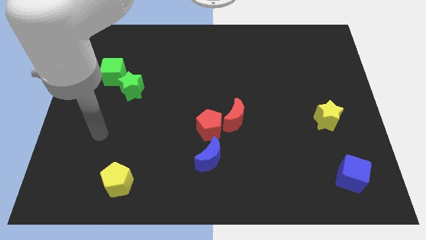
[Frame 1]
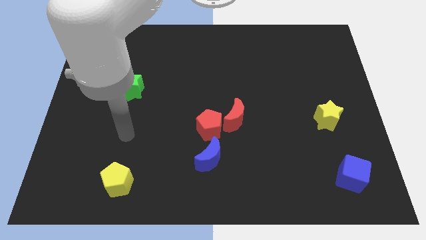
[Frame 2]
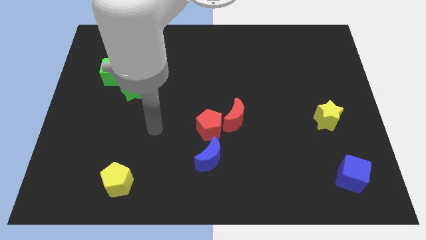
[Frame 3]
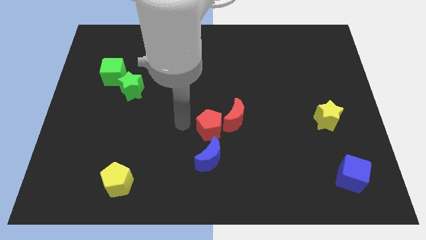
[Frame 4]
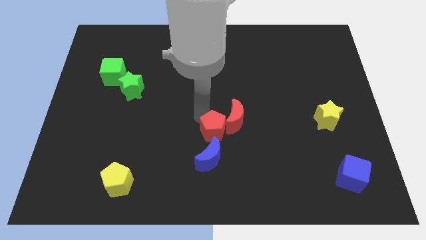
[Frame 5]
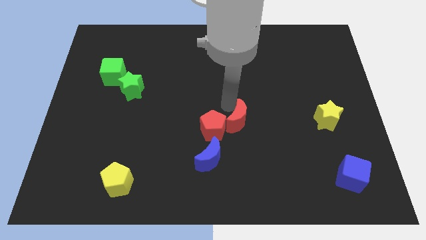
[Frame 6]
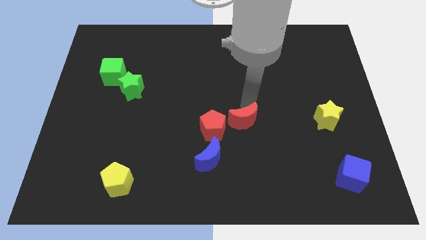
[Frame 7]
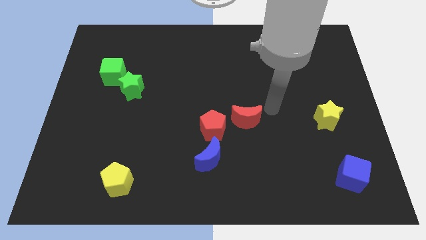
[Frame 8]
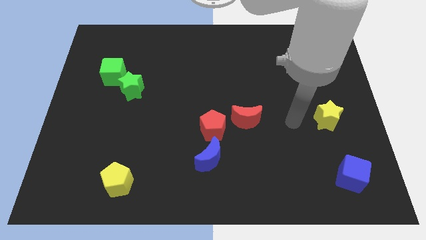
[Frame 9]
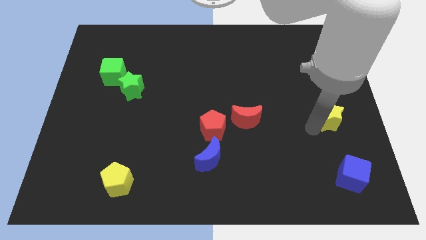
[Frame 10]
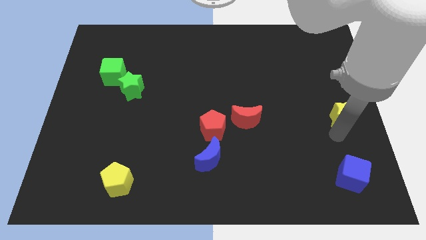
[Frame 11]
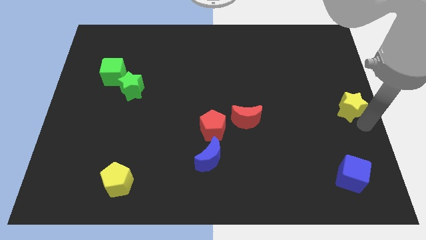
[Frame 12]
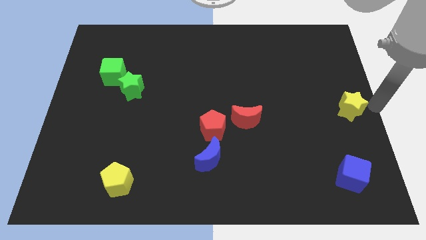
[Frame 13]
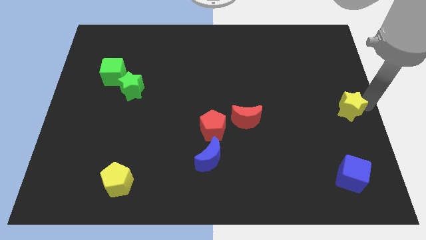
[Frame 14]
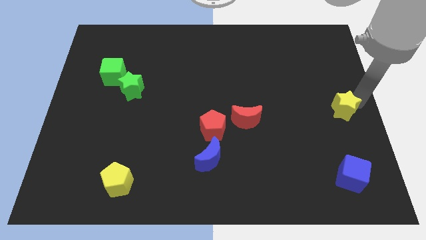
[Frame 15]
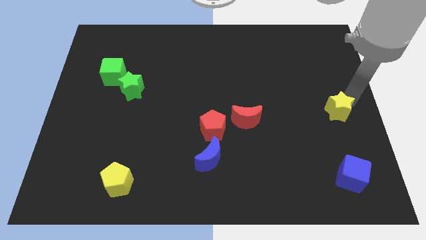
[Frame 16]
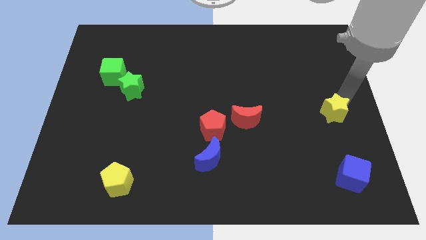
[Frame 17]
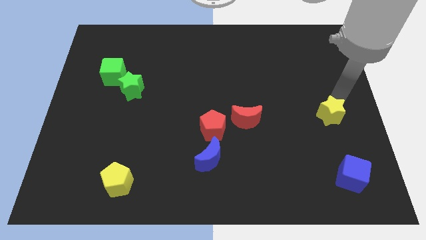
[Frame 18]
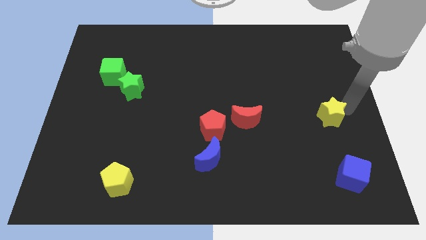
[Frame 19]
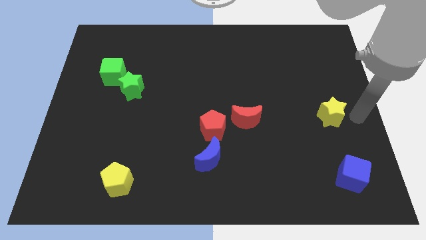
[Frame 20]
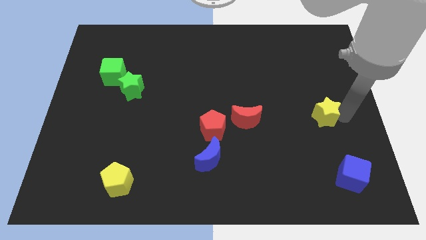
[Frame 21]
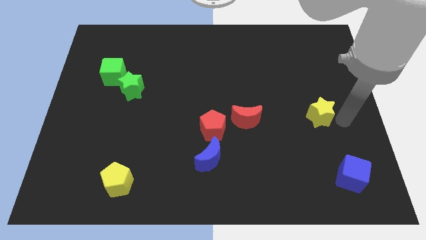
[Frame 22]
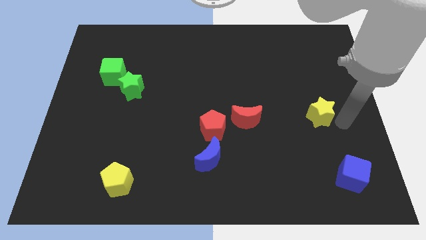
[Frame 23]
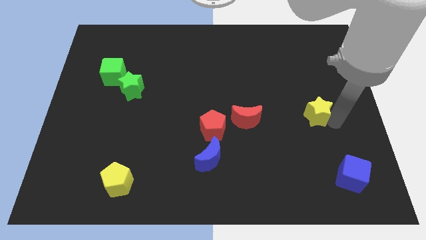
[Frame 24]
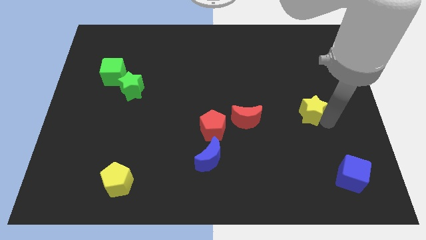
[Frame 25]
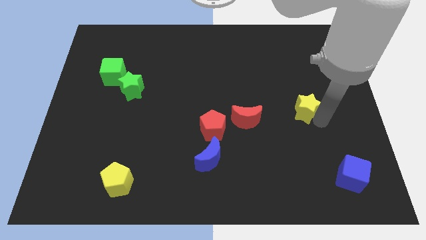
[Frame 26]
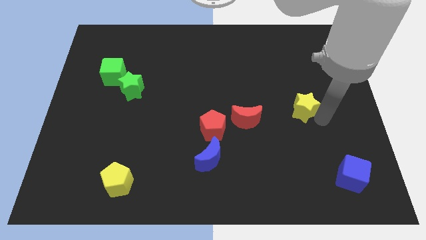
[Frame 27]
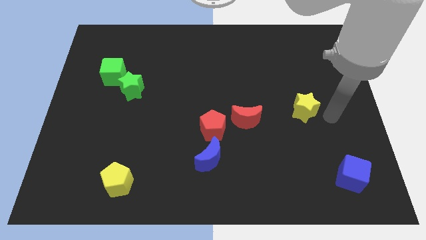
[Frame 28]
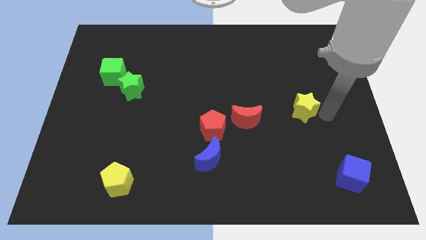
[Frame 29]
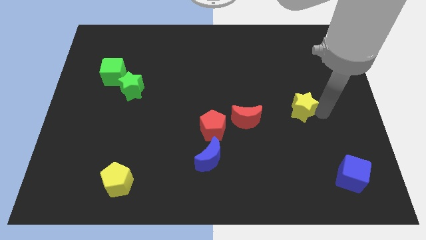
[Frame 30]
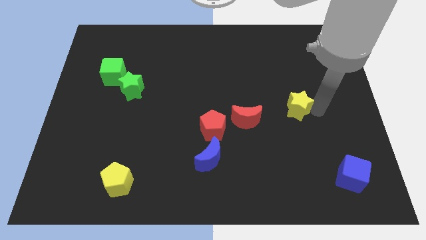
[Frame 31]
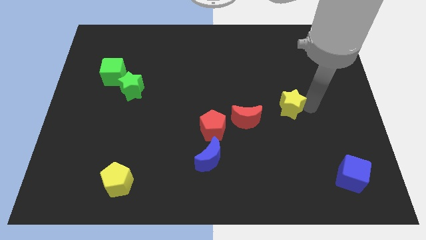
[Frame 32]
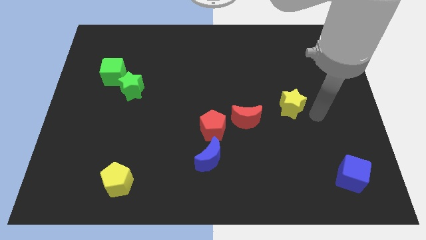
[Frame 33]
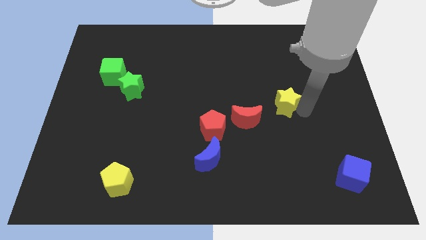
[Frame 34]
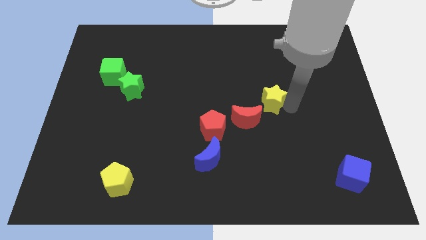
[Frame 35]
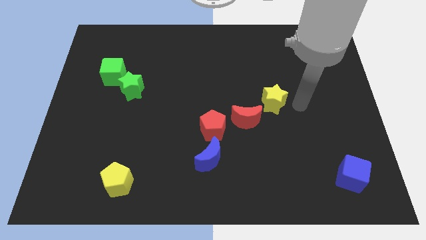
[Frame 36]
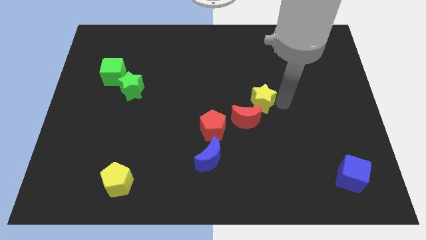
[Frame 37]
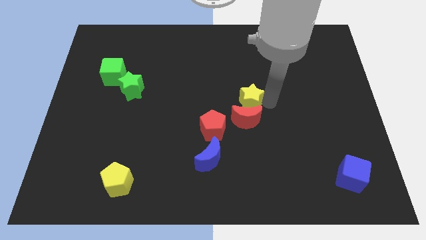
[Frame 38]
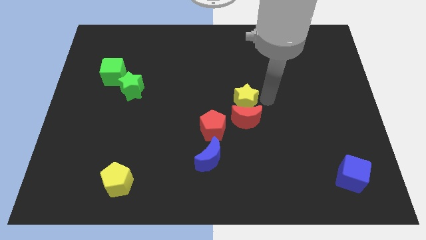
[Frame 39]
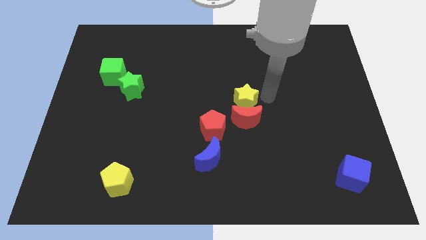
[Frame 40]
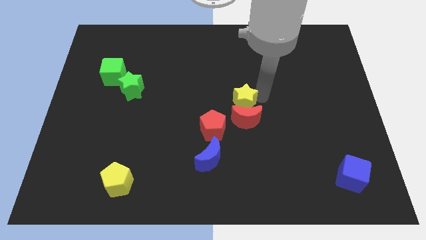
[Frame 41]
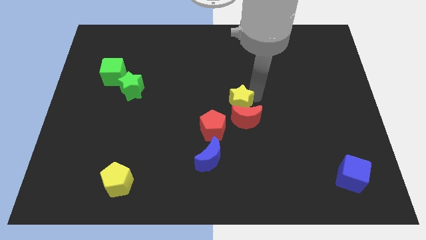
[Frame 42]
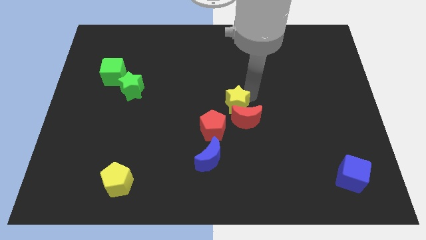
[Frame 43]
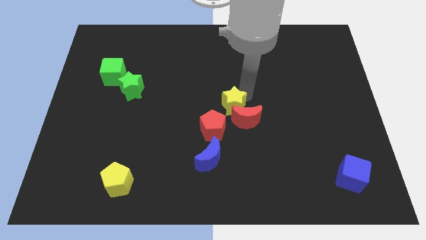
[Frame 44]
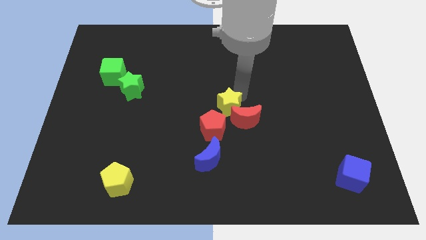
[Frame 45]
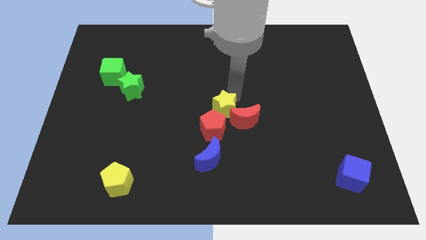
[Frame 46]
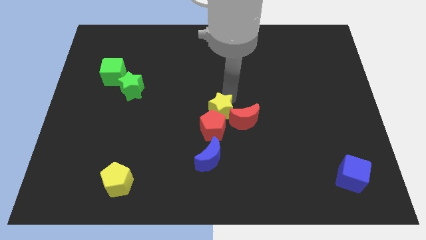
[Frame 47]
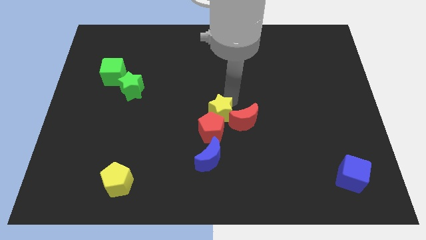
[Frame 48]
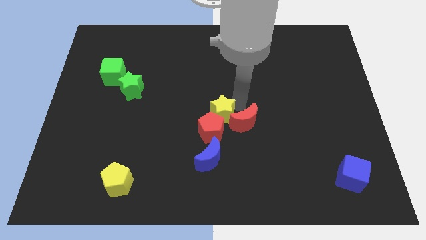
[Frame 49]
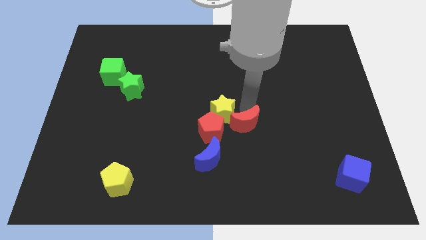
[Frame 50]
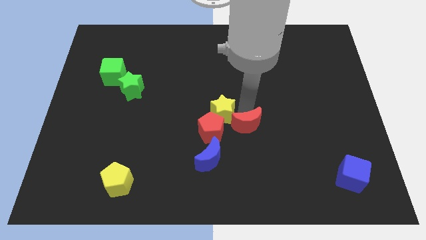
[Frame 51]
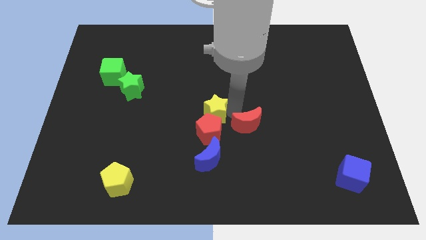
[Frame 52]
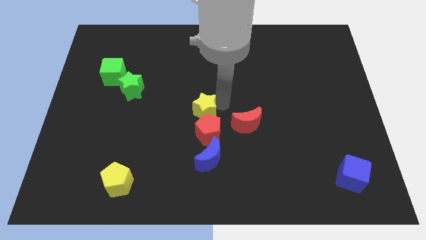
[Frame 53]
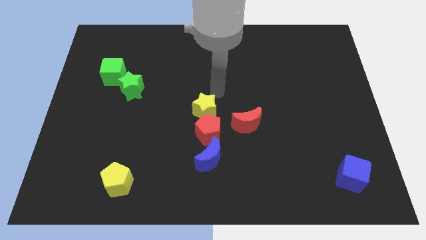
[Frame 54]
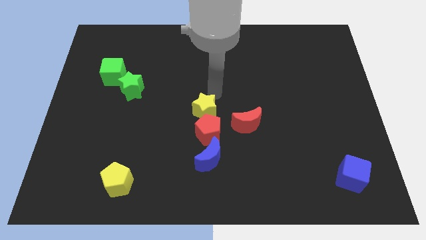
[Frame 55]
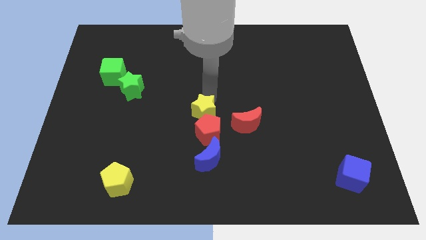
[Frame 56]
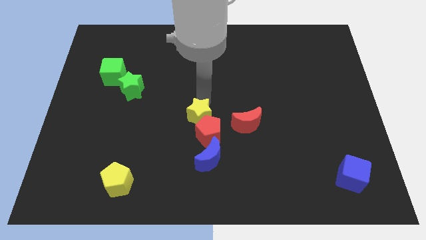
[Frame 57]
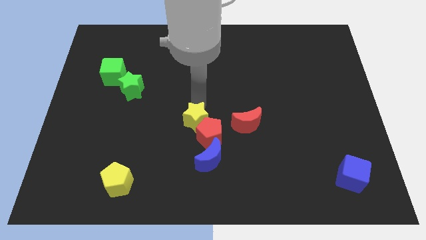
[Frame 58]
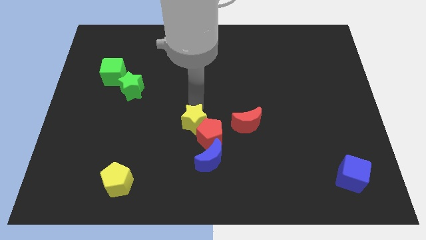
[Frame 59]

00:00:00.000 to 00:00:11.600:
push the yellow star to the top left of the blue moon

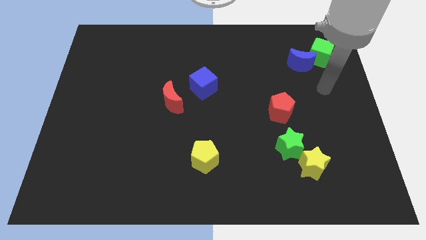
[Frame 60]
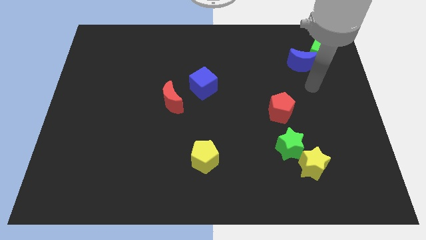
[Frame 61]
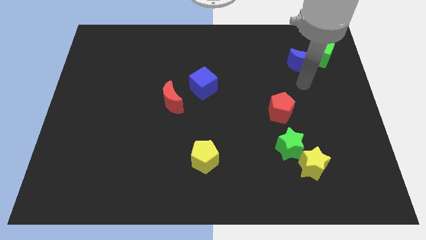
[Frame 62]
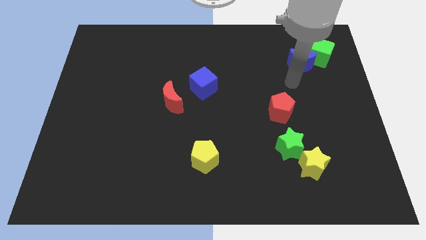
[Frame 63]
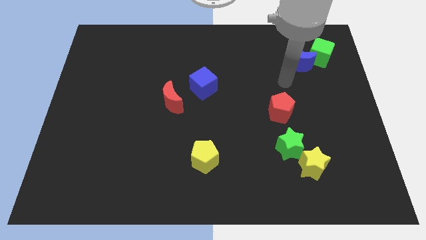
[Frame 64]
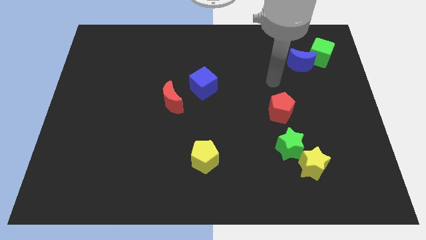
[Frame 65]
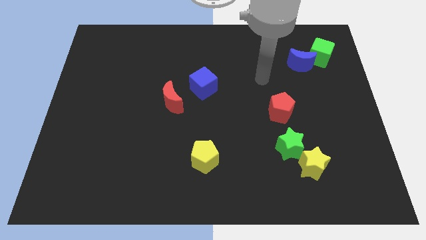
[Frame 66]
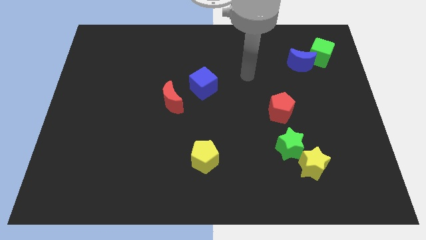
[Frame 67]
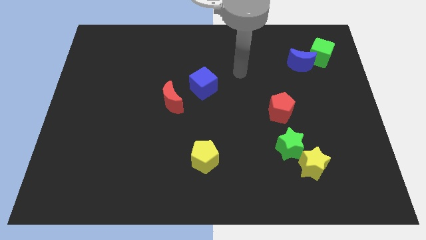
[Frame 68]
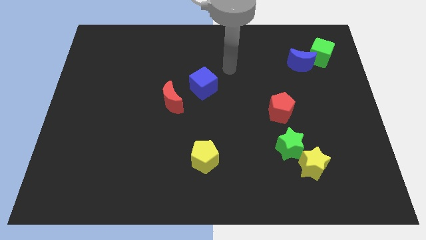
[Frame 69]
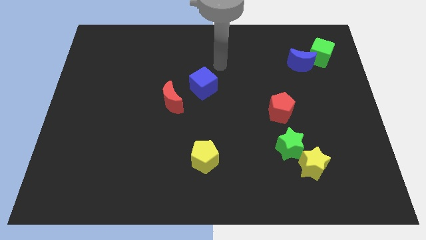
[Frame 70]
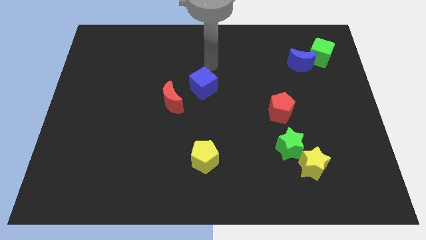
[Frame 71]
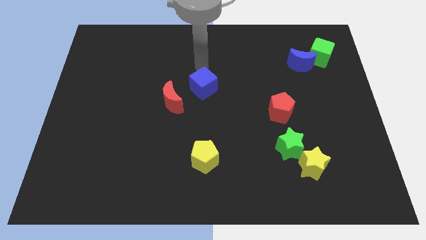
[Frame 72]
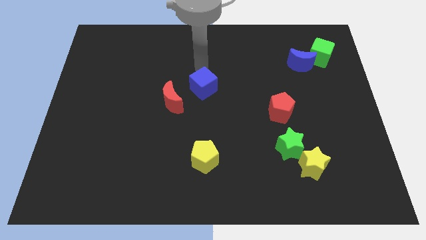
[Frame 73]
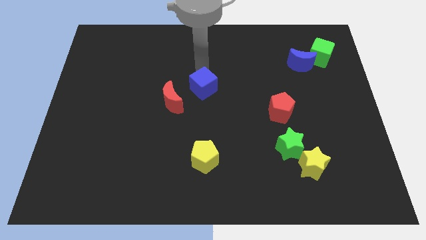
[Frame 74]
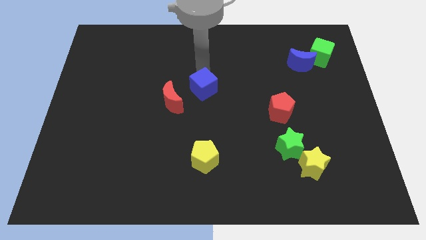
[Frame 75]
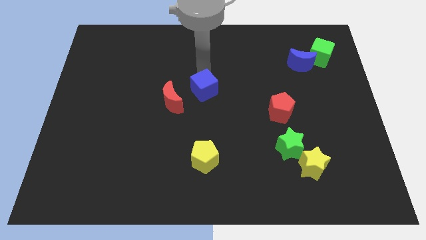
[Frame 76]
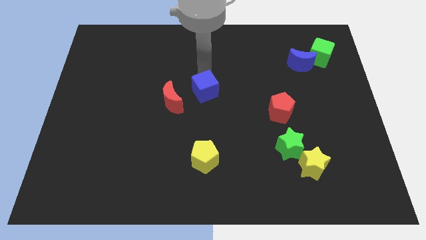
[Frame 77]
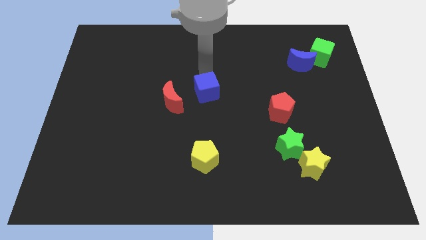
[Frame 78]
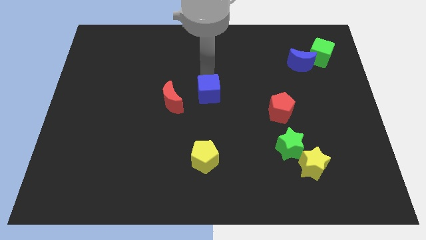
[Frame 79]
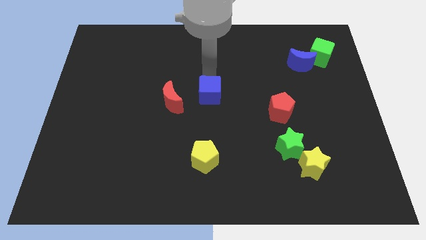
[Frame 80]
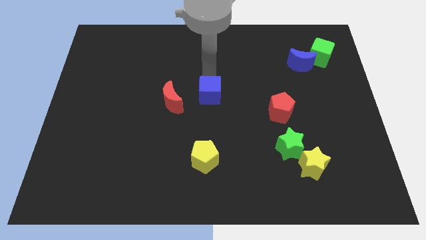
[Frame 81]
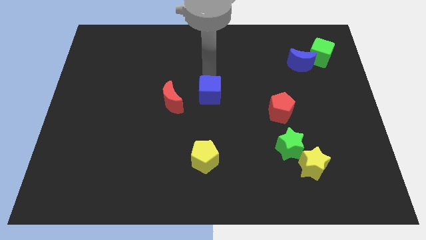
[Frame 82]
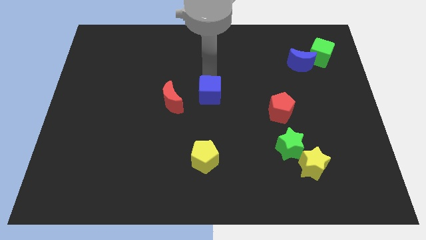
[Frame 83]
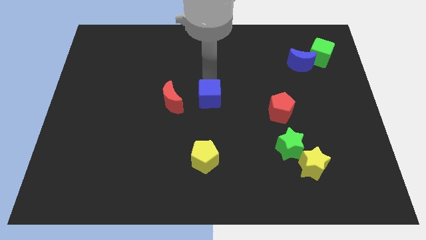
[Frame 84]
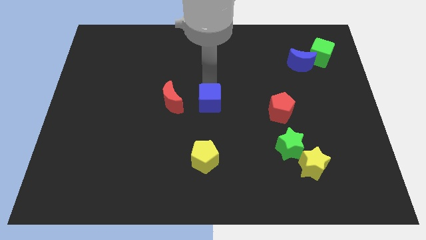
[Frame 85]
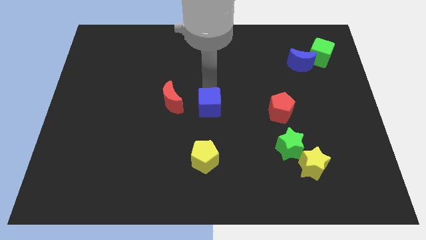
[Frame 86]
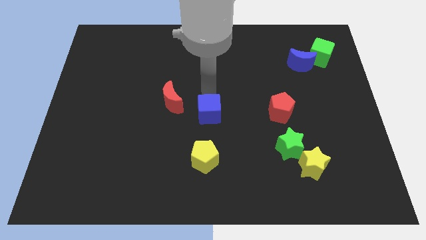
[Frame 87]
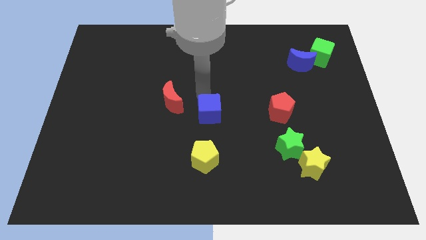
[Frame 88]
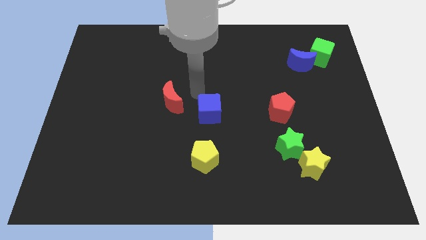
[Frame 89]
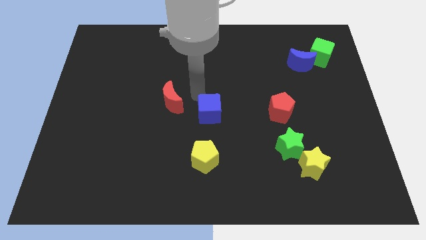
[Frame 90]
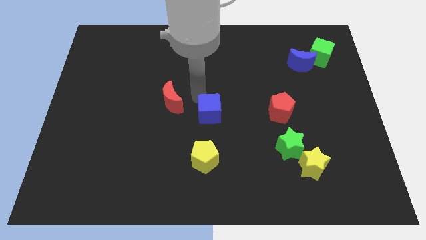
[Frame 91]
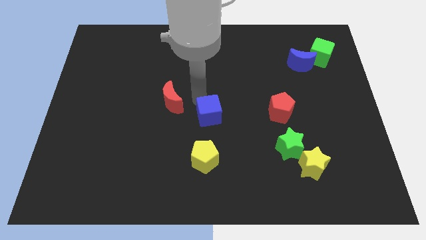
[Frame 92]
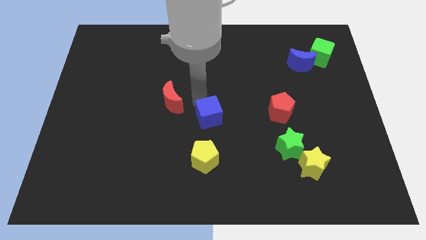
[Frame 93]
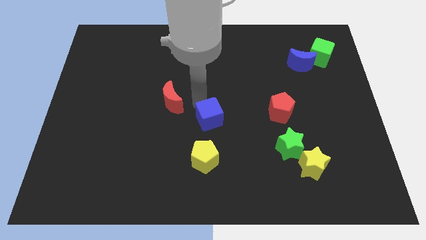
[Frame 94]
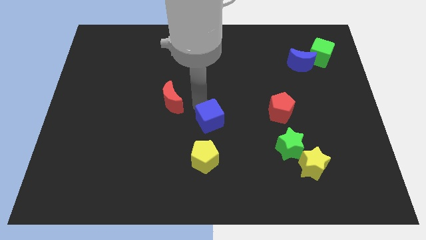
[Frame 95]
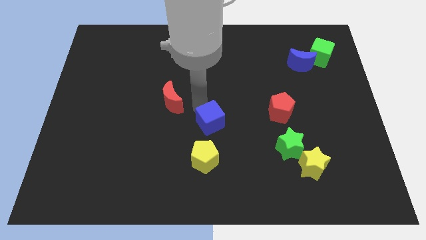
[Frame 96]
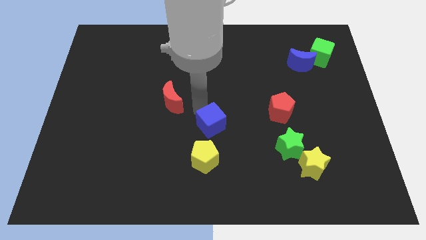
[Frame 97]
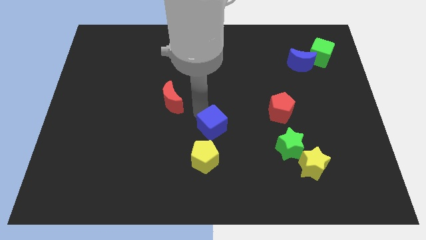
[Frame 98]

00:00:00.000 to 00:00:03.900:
put the blue cube to the top right side of the yellow pentagon
